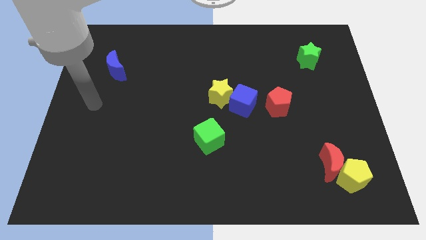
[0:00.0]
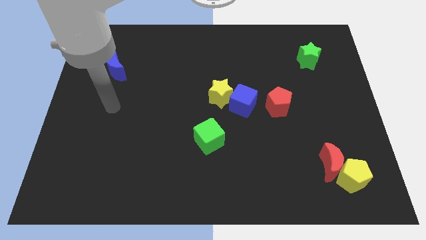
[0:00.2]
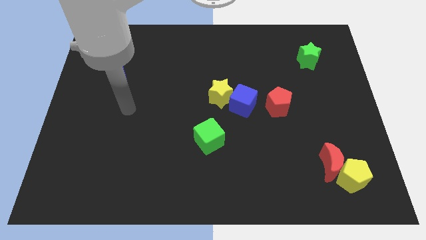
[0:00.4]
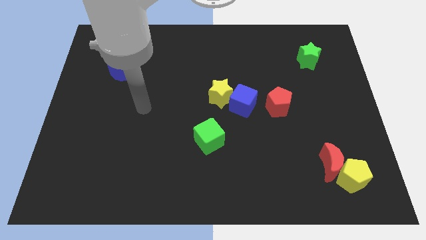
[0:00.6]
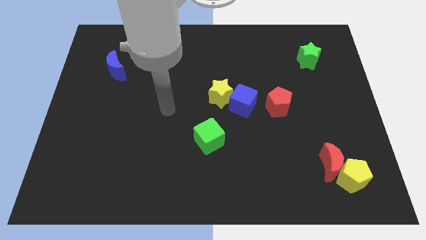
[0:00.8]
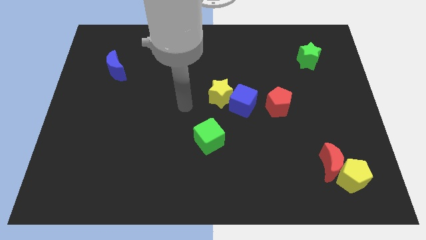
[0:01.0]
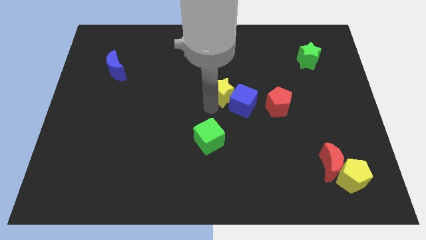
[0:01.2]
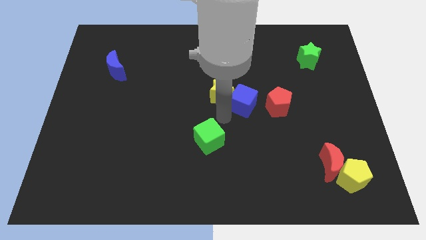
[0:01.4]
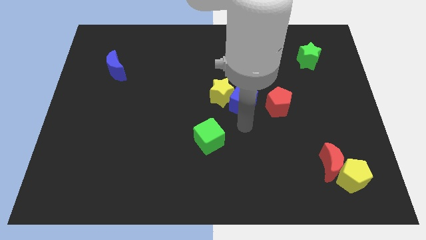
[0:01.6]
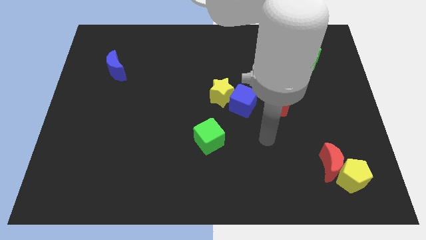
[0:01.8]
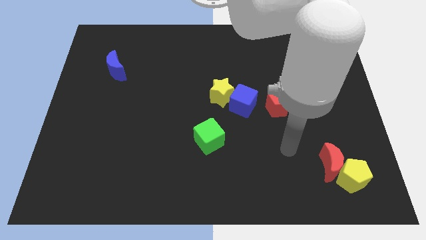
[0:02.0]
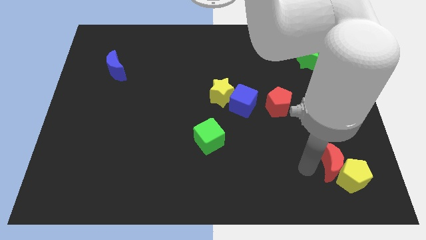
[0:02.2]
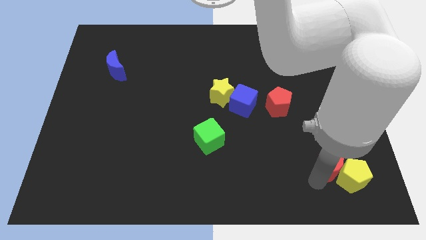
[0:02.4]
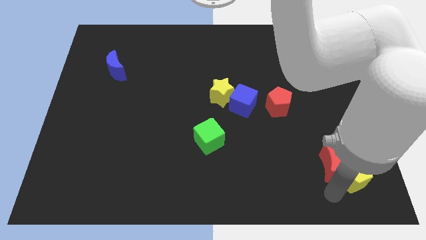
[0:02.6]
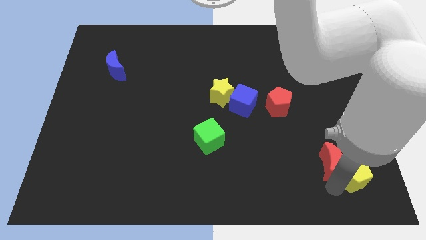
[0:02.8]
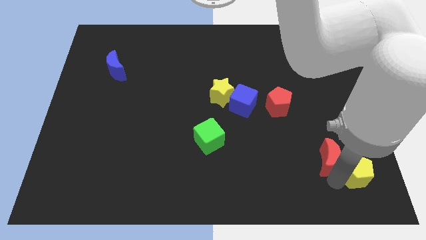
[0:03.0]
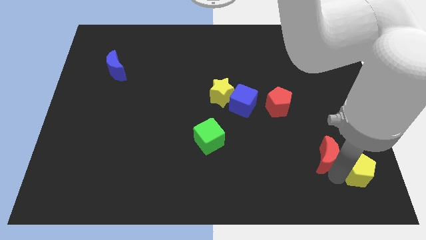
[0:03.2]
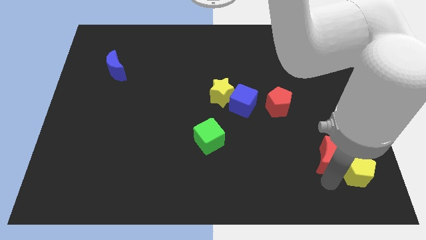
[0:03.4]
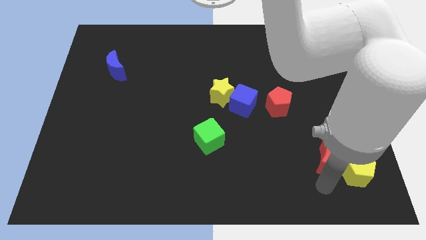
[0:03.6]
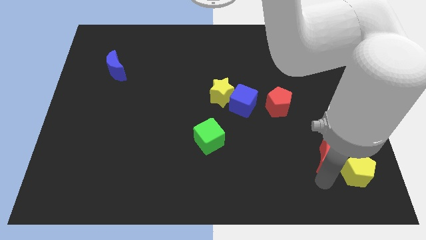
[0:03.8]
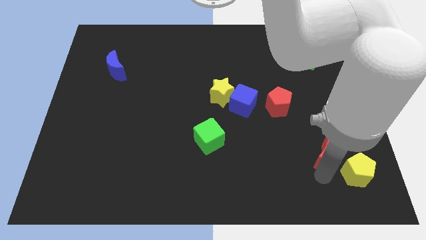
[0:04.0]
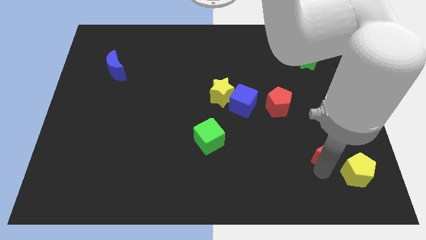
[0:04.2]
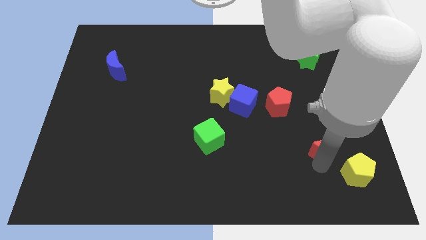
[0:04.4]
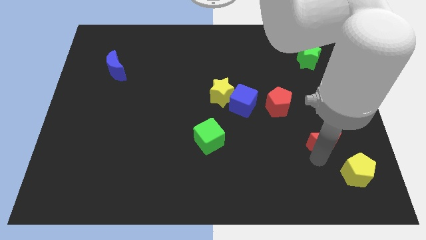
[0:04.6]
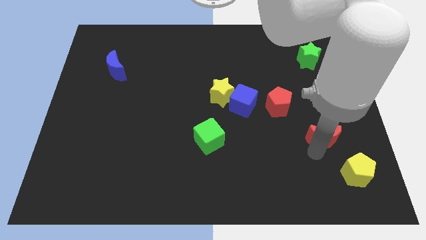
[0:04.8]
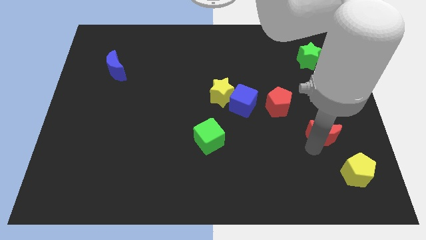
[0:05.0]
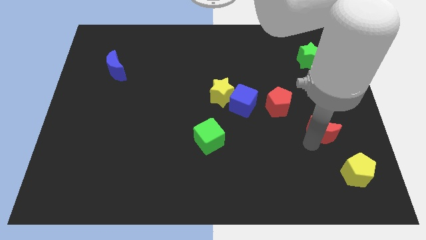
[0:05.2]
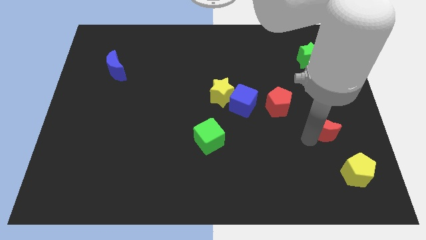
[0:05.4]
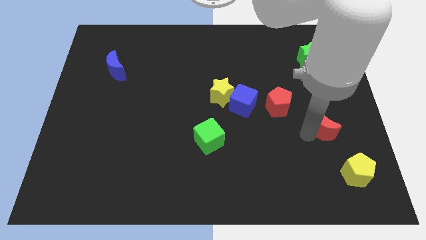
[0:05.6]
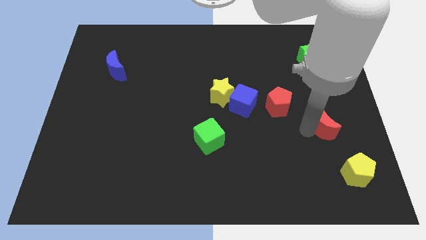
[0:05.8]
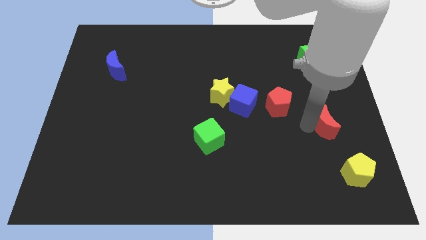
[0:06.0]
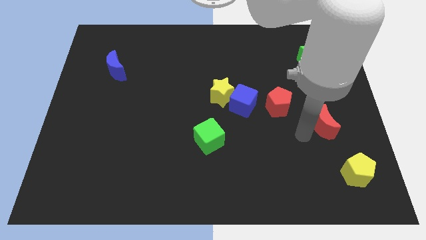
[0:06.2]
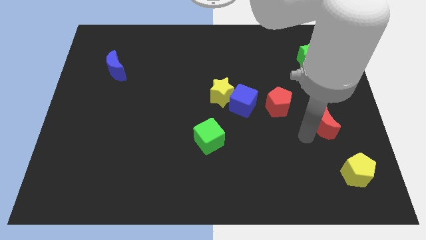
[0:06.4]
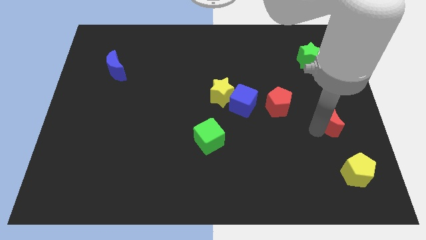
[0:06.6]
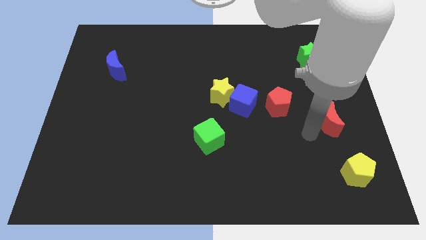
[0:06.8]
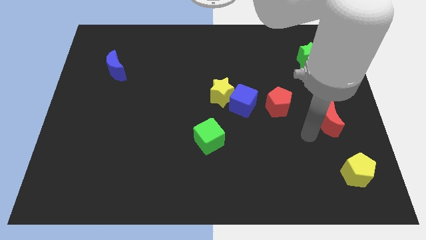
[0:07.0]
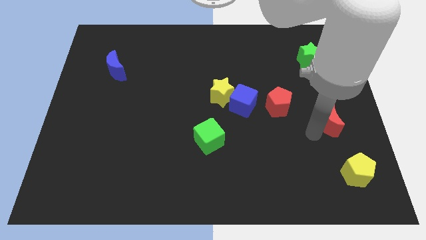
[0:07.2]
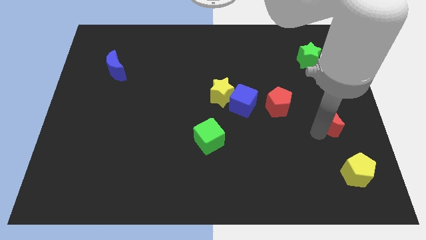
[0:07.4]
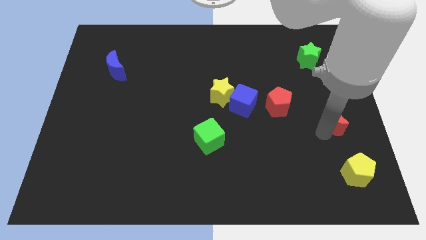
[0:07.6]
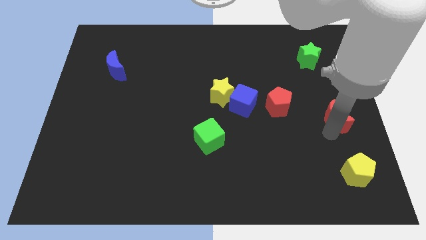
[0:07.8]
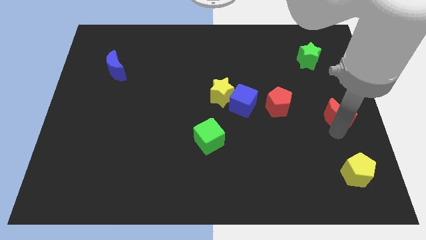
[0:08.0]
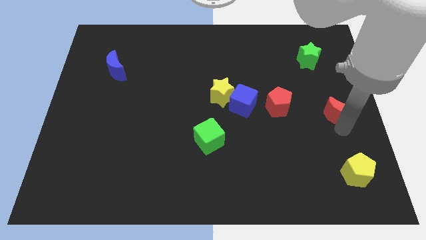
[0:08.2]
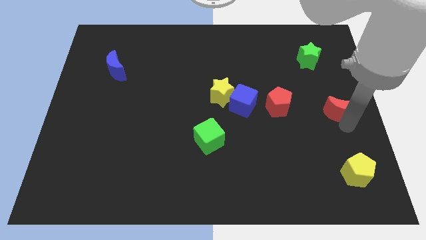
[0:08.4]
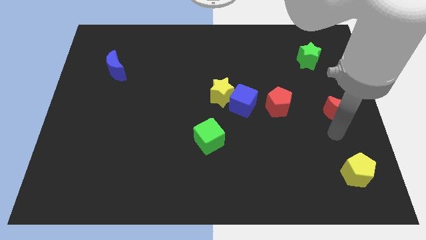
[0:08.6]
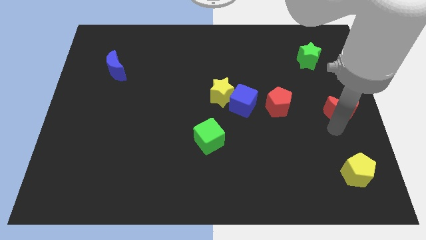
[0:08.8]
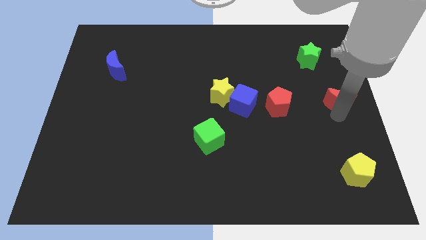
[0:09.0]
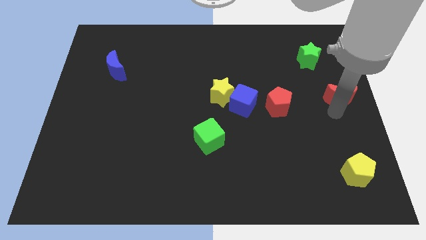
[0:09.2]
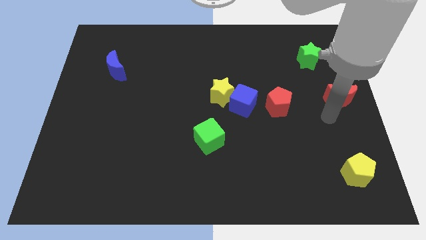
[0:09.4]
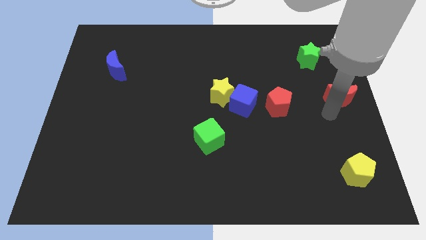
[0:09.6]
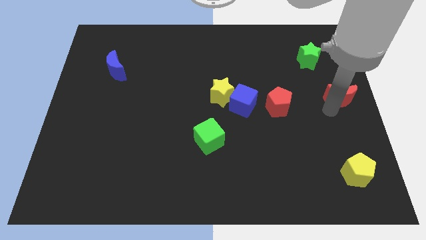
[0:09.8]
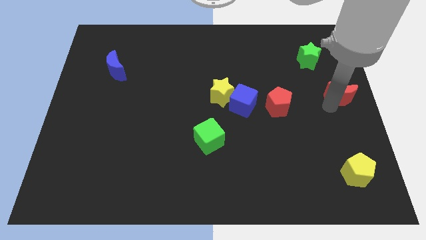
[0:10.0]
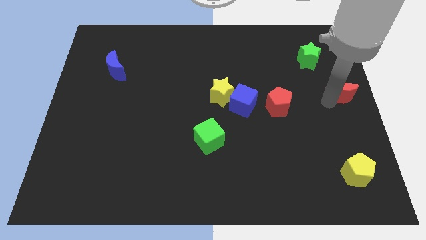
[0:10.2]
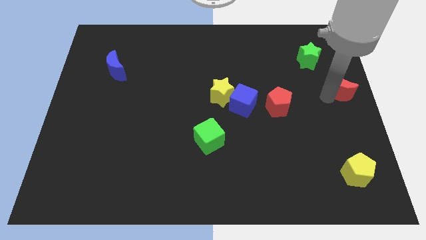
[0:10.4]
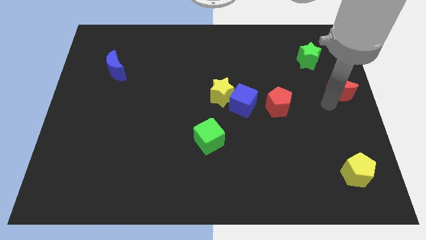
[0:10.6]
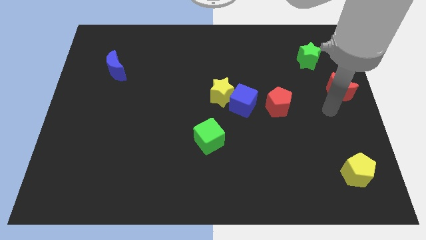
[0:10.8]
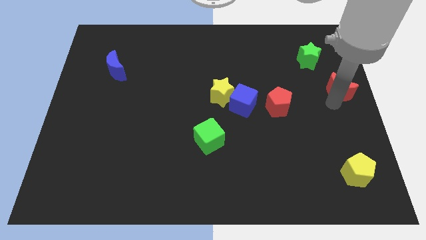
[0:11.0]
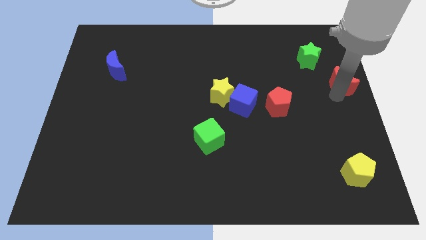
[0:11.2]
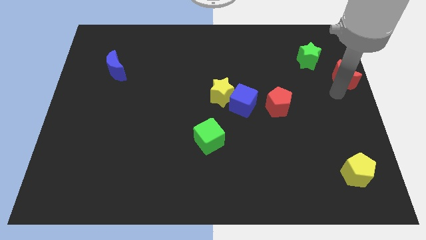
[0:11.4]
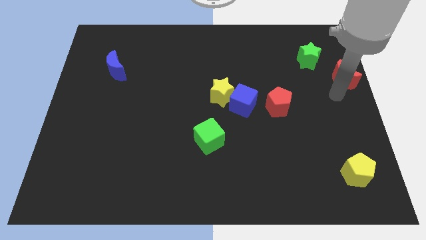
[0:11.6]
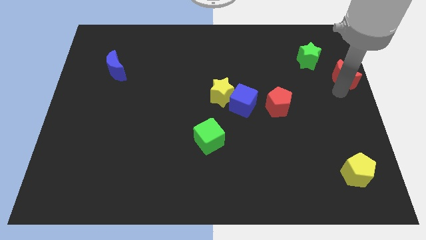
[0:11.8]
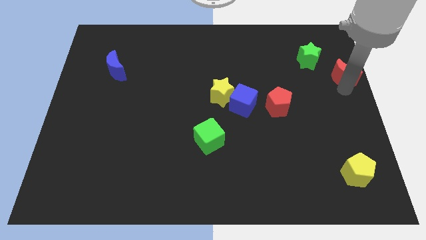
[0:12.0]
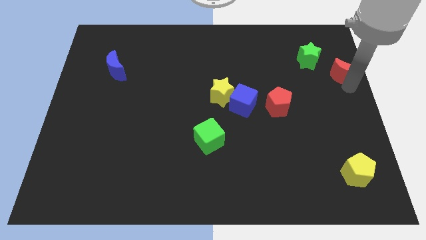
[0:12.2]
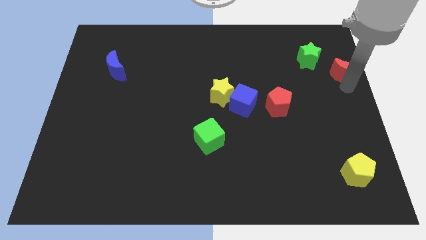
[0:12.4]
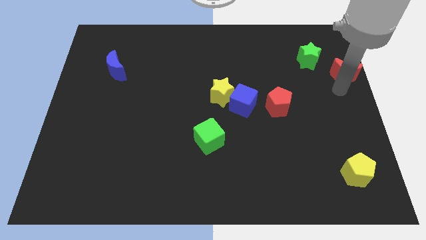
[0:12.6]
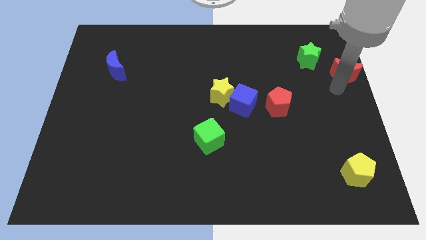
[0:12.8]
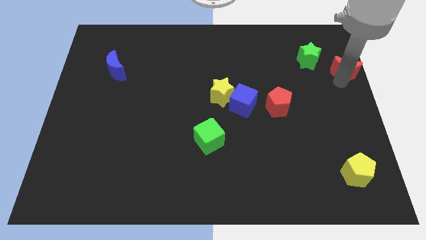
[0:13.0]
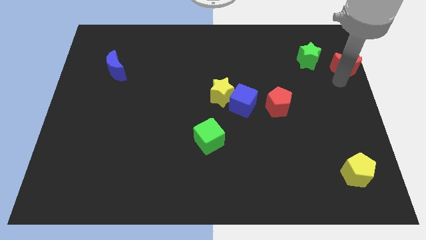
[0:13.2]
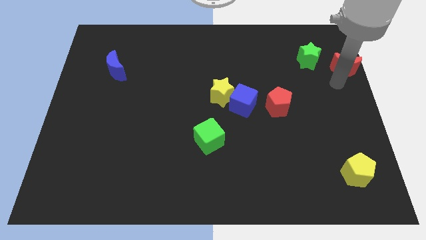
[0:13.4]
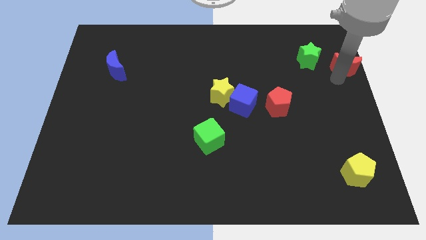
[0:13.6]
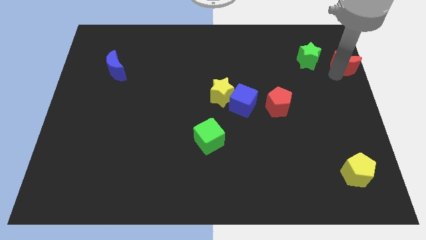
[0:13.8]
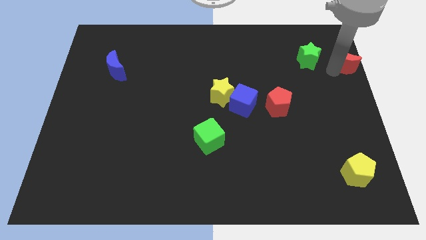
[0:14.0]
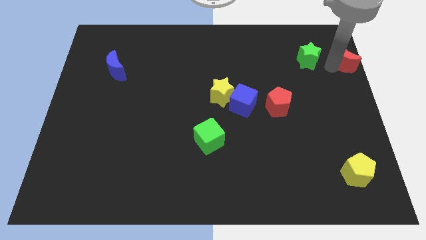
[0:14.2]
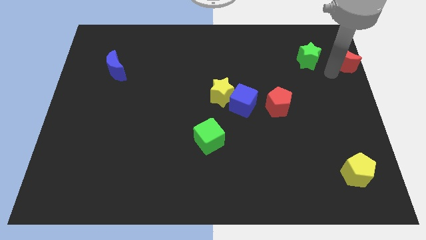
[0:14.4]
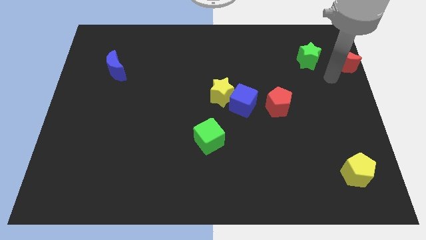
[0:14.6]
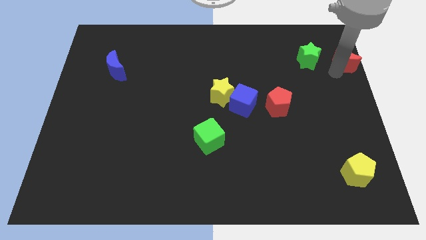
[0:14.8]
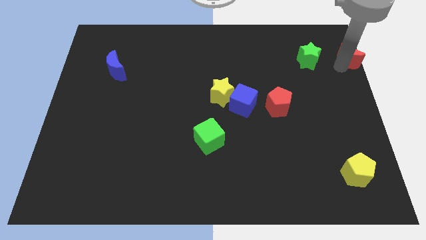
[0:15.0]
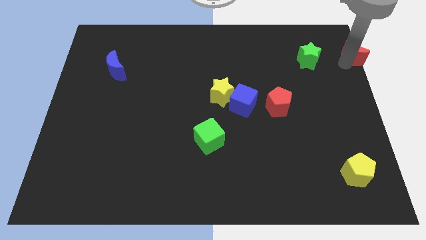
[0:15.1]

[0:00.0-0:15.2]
put the red moon to the top right corner
